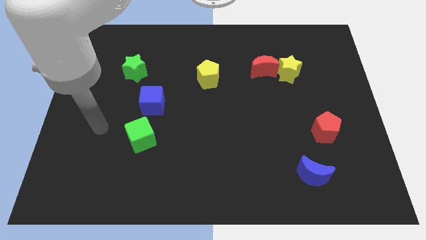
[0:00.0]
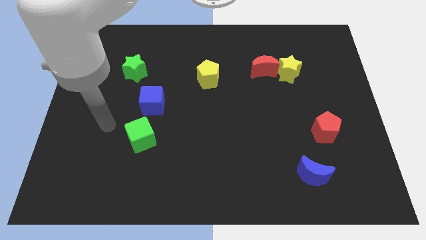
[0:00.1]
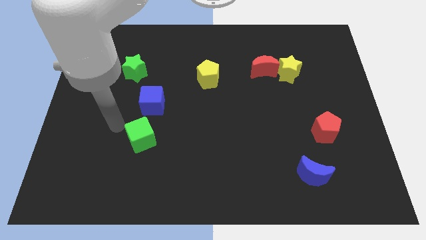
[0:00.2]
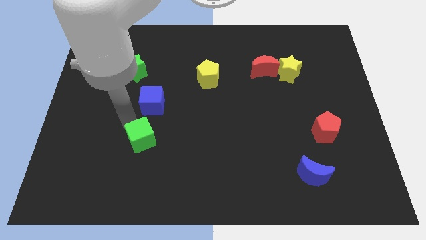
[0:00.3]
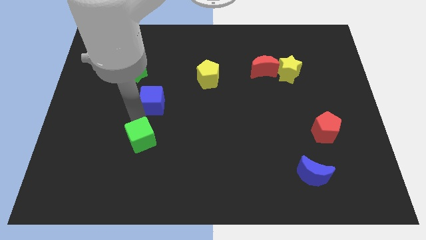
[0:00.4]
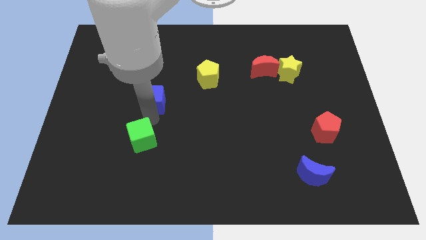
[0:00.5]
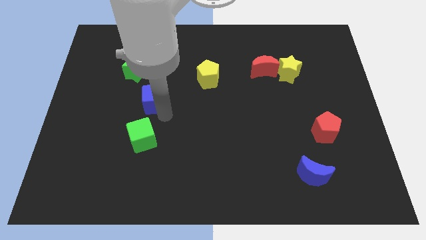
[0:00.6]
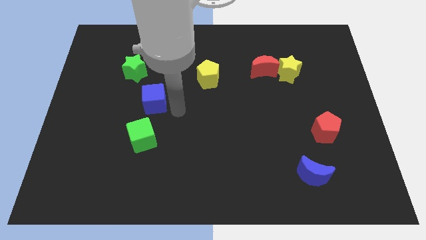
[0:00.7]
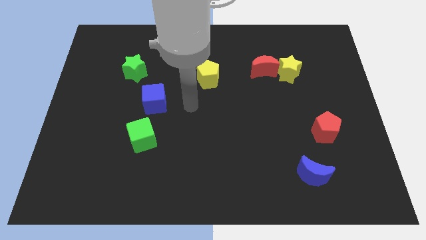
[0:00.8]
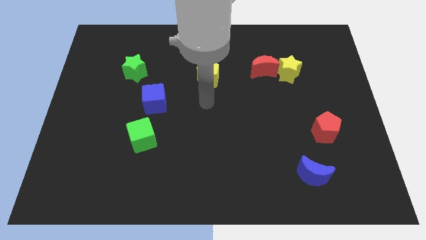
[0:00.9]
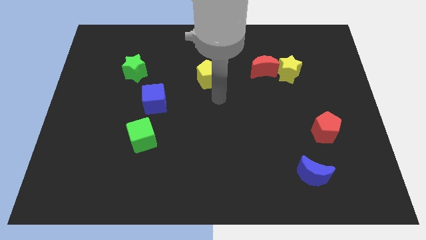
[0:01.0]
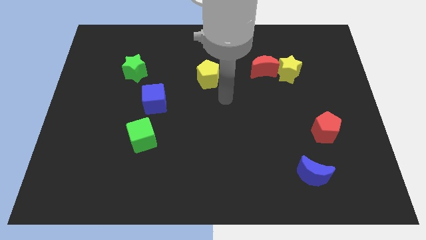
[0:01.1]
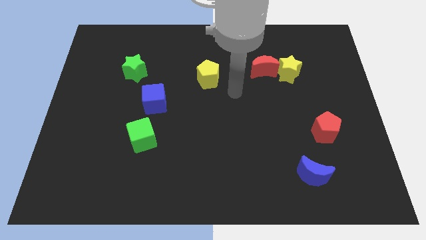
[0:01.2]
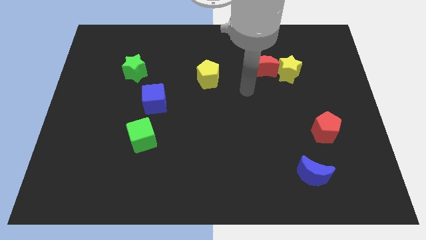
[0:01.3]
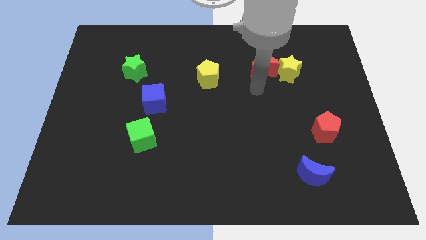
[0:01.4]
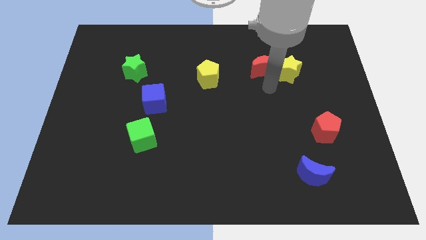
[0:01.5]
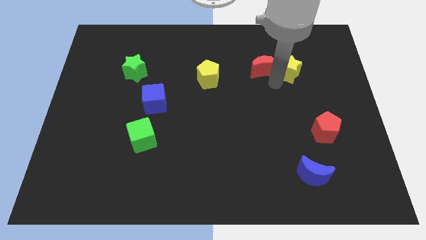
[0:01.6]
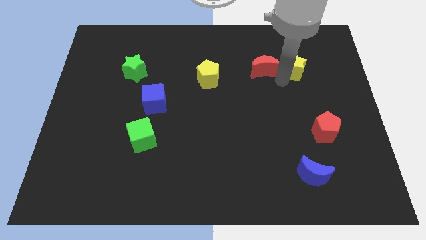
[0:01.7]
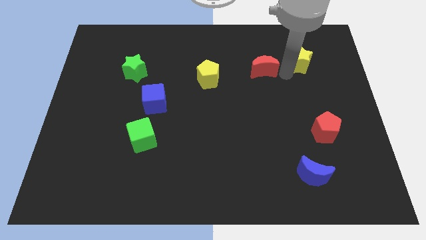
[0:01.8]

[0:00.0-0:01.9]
separate the red moon from the yellow star

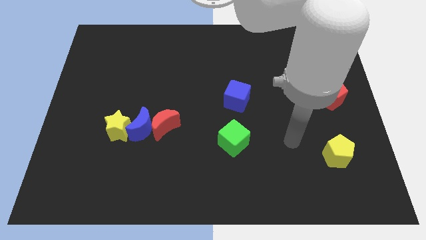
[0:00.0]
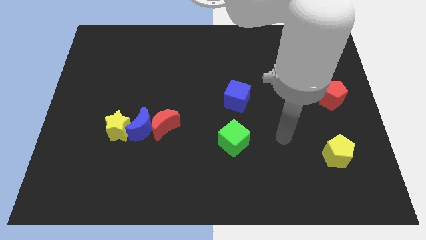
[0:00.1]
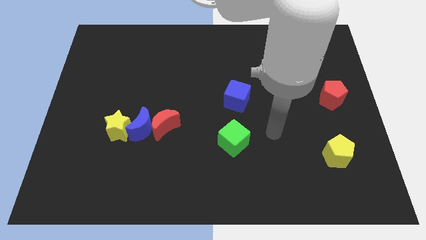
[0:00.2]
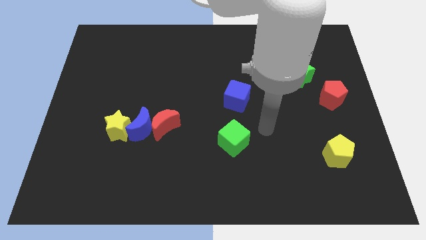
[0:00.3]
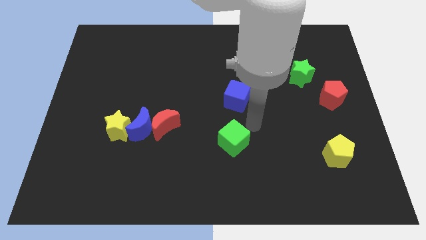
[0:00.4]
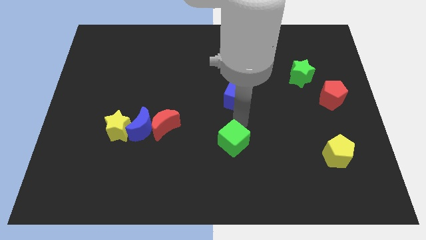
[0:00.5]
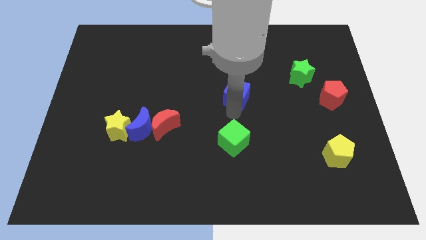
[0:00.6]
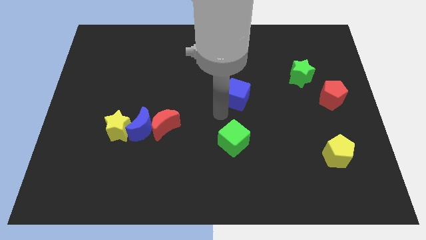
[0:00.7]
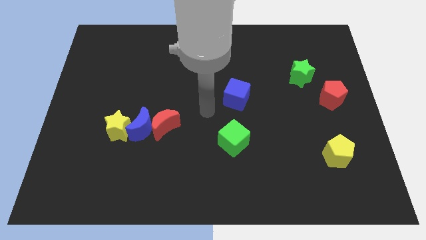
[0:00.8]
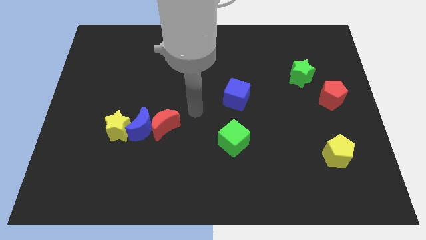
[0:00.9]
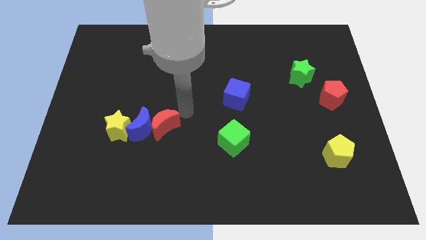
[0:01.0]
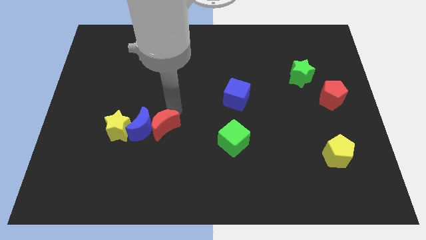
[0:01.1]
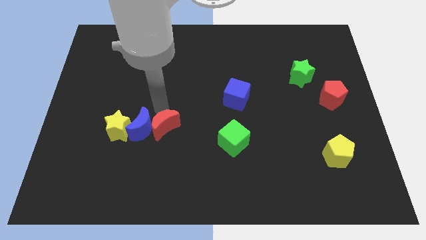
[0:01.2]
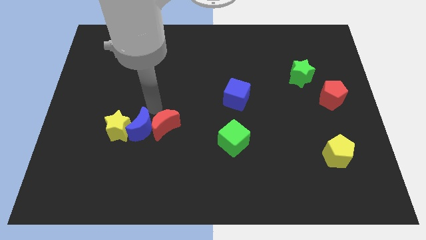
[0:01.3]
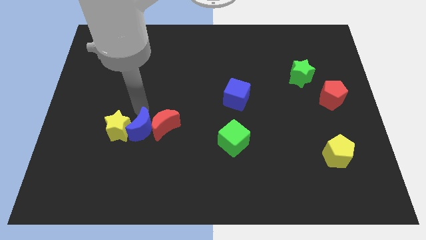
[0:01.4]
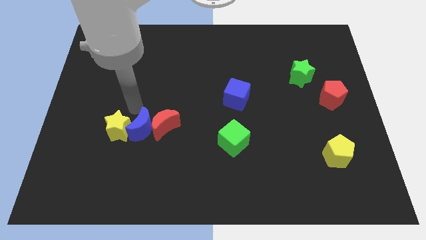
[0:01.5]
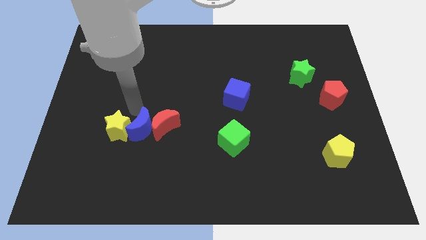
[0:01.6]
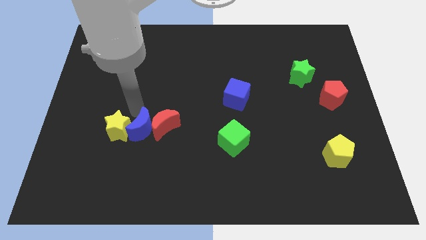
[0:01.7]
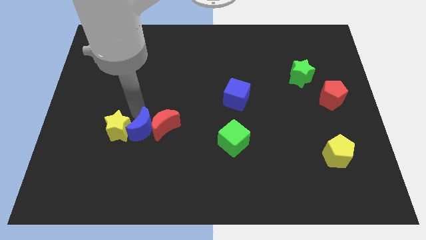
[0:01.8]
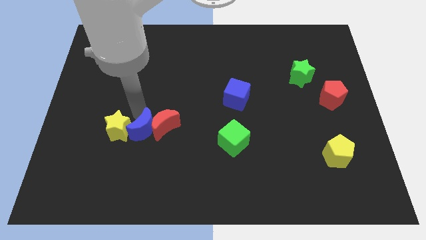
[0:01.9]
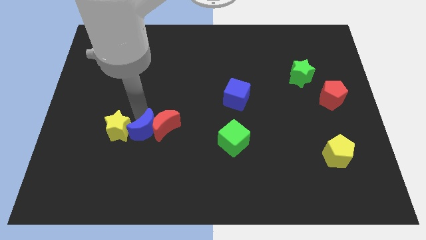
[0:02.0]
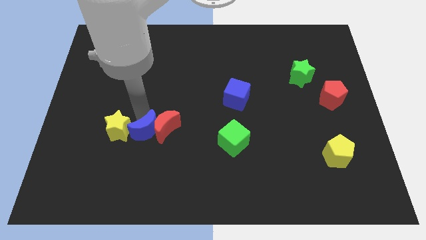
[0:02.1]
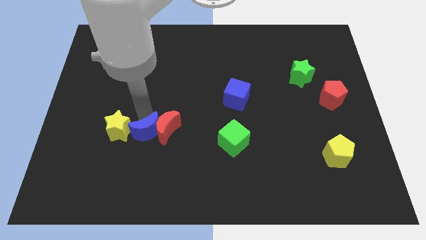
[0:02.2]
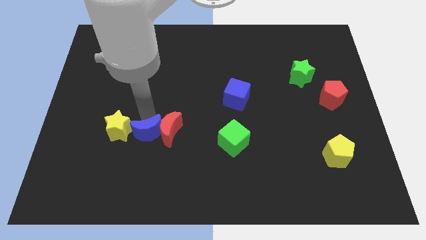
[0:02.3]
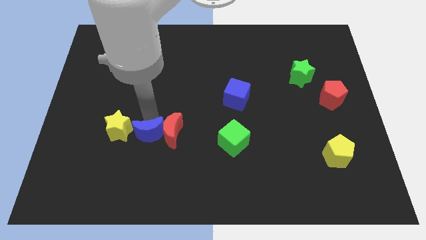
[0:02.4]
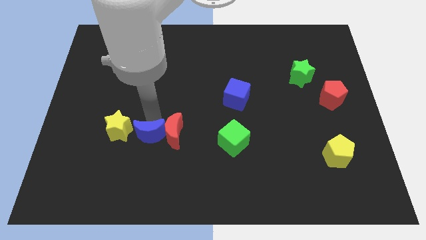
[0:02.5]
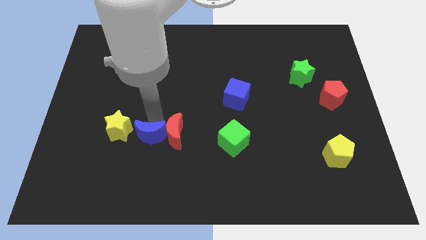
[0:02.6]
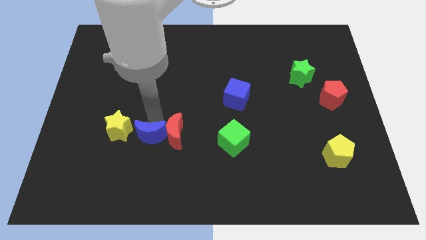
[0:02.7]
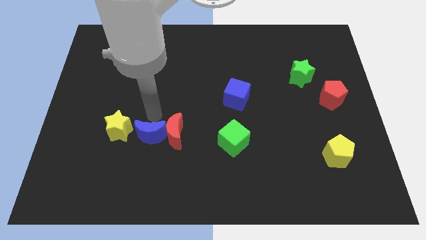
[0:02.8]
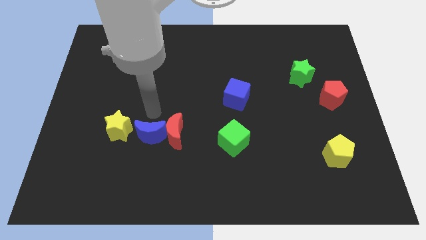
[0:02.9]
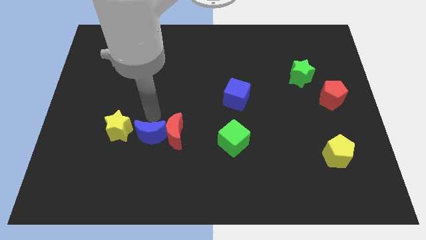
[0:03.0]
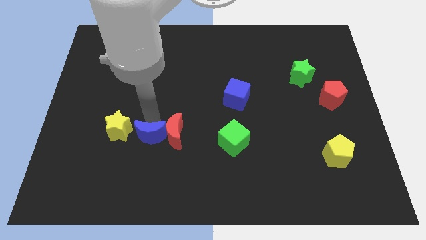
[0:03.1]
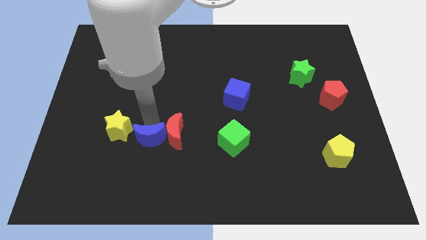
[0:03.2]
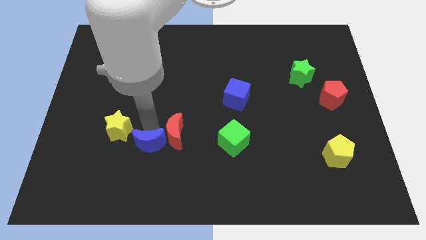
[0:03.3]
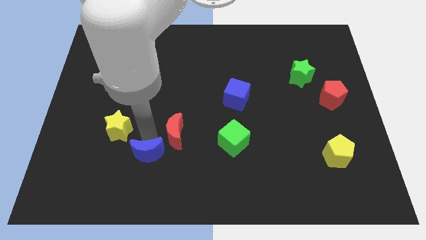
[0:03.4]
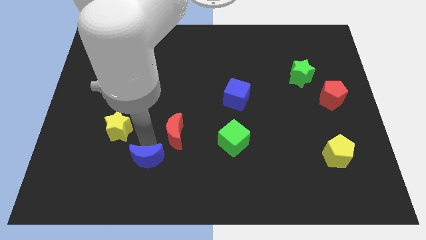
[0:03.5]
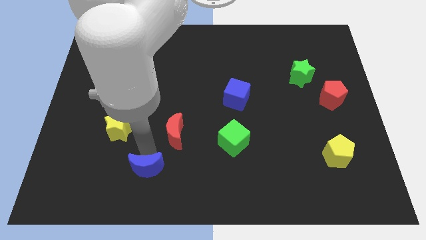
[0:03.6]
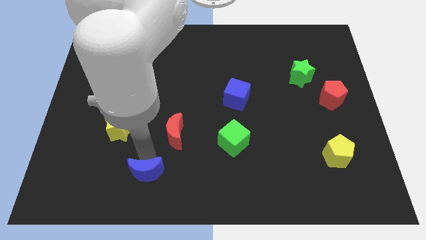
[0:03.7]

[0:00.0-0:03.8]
pull the blue moon apart from the red moon and yellow star

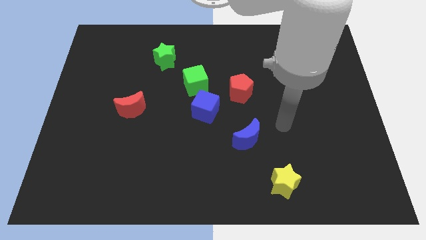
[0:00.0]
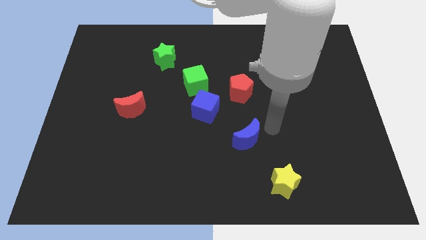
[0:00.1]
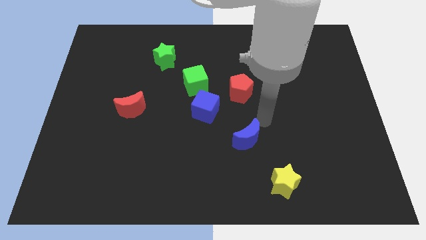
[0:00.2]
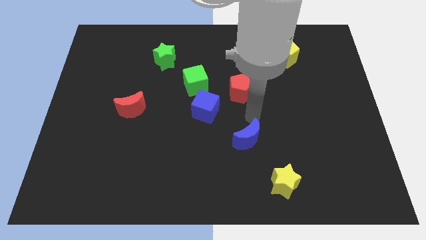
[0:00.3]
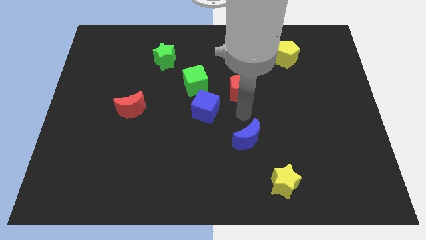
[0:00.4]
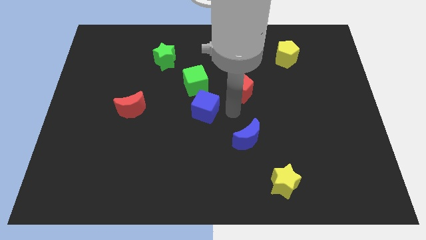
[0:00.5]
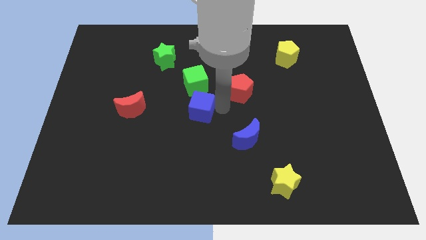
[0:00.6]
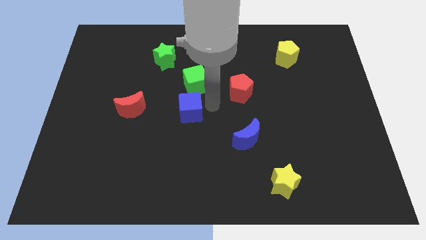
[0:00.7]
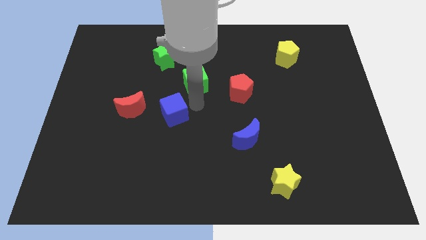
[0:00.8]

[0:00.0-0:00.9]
separate the green cube from the blue cube

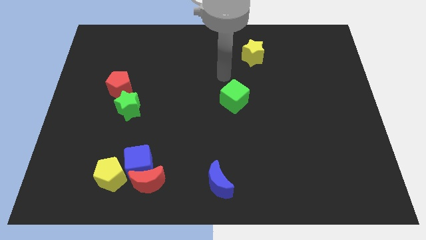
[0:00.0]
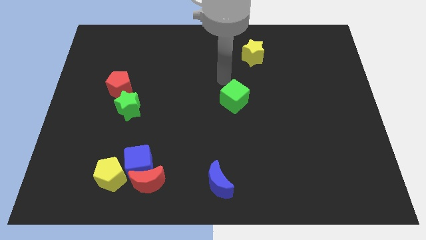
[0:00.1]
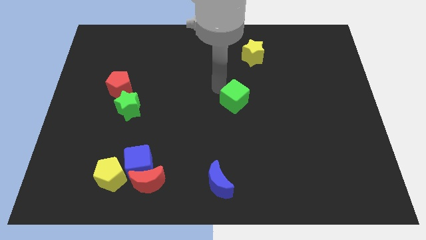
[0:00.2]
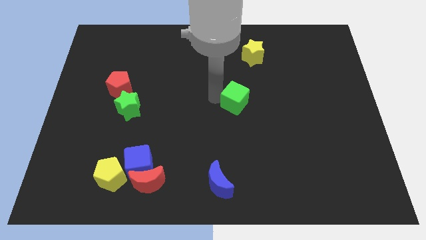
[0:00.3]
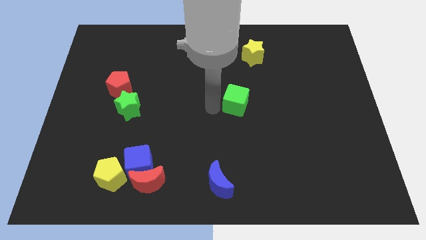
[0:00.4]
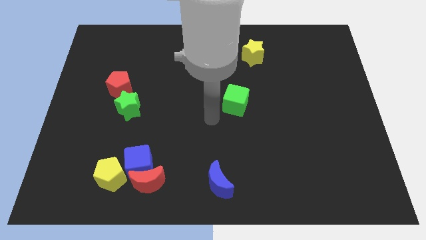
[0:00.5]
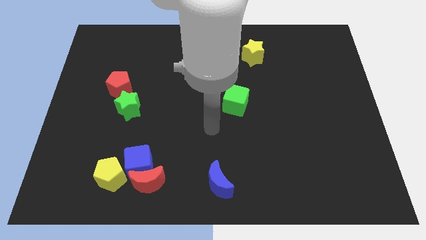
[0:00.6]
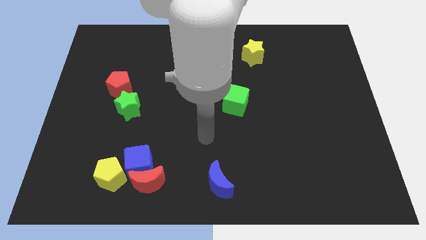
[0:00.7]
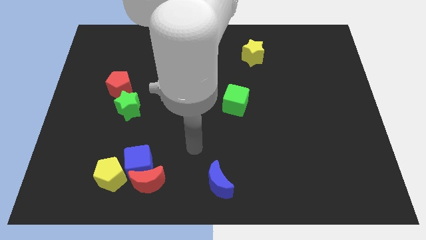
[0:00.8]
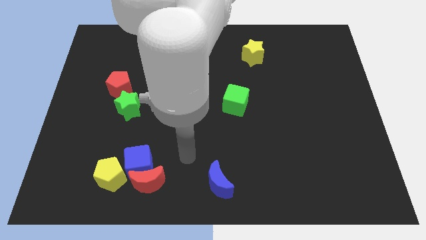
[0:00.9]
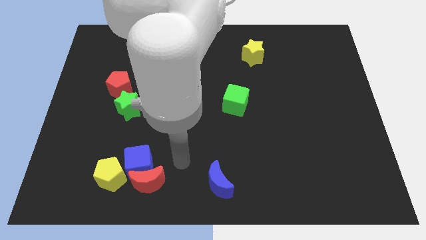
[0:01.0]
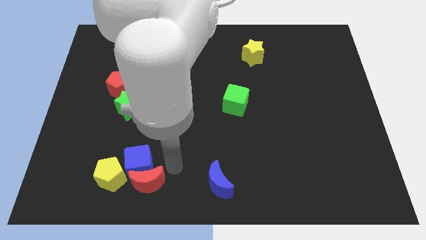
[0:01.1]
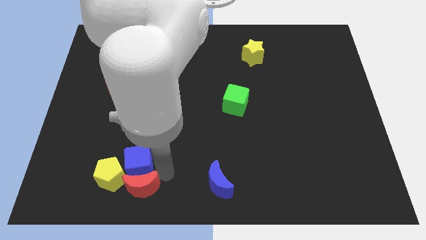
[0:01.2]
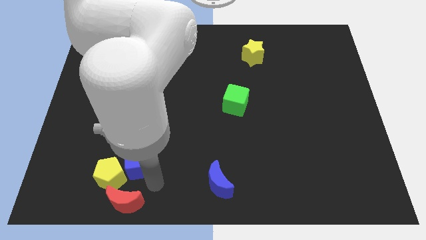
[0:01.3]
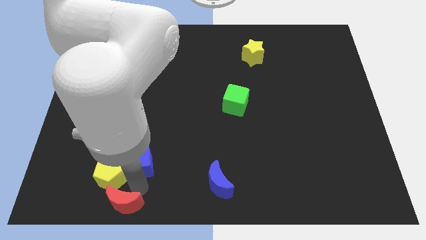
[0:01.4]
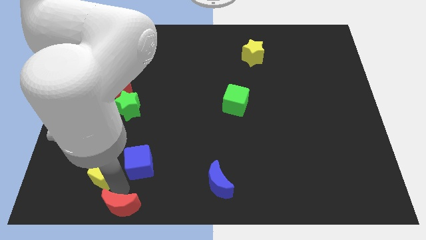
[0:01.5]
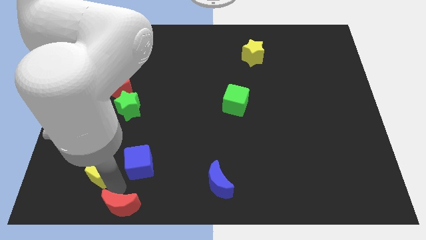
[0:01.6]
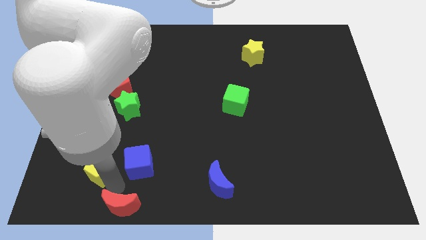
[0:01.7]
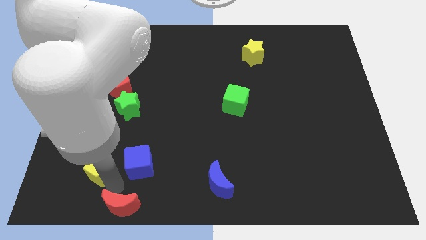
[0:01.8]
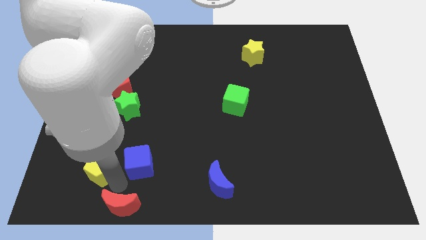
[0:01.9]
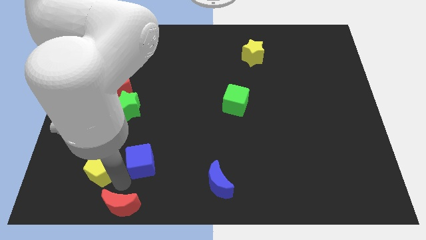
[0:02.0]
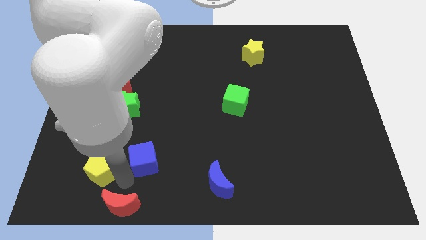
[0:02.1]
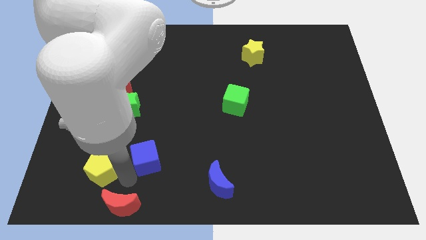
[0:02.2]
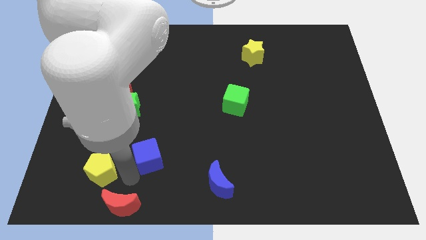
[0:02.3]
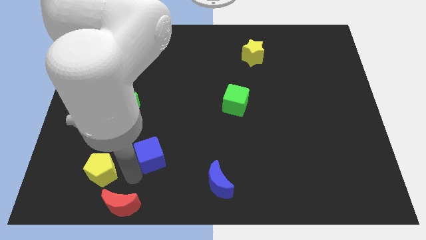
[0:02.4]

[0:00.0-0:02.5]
separate the blue cube from the red moon and yellow pentagon

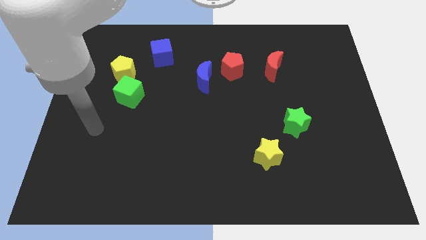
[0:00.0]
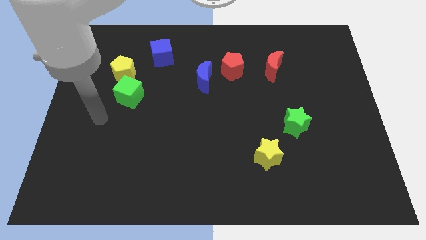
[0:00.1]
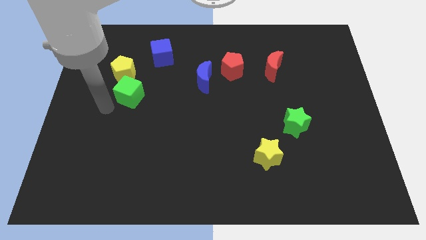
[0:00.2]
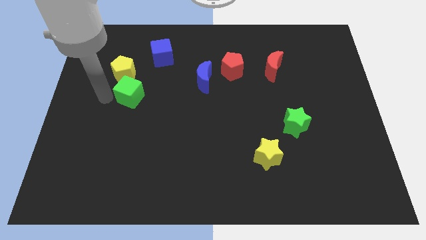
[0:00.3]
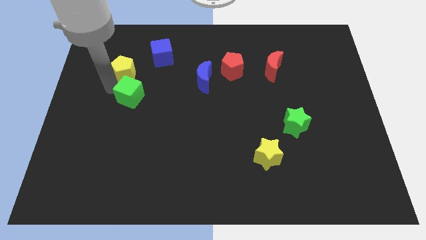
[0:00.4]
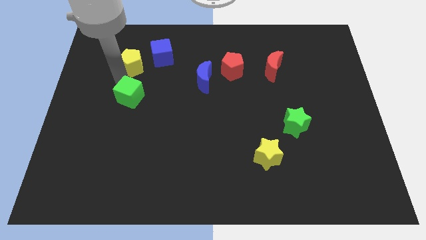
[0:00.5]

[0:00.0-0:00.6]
separate the green cube from the yellow pentagon
